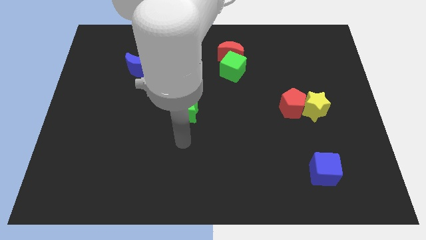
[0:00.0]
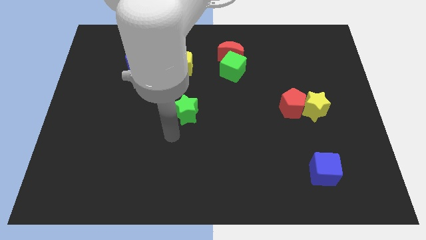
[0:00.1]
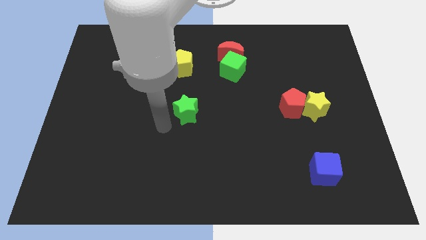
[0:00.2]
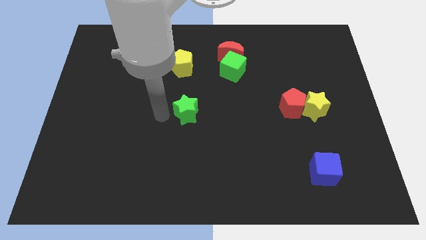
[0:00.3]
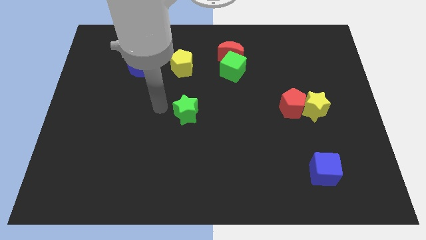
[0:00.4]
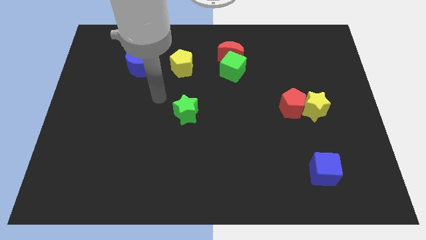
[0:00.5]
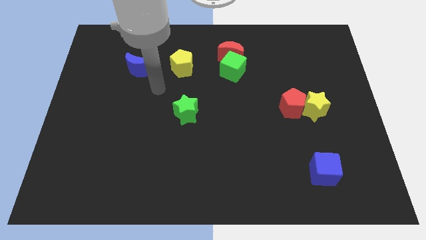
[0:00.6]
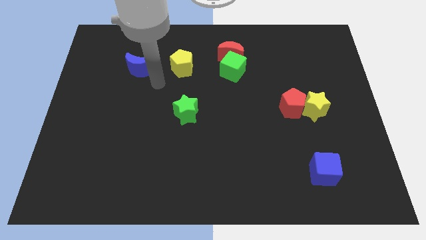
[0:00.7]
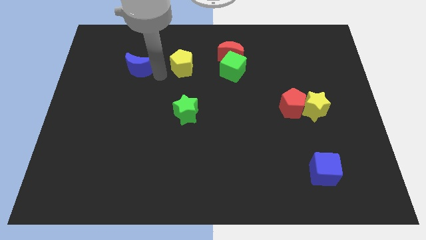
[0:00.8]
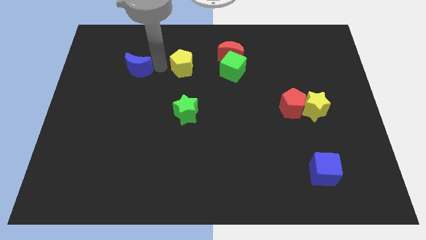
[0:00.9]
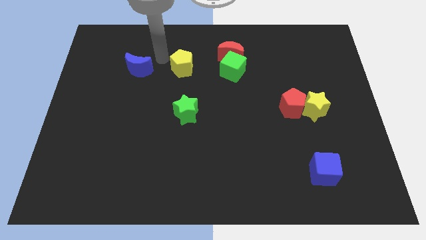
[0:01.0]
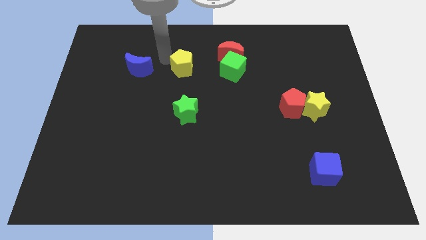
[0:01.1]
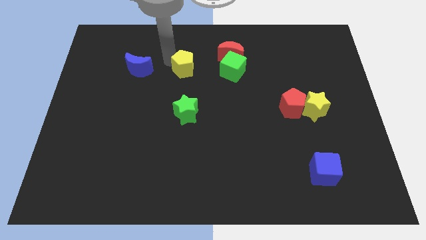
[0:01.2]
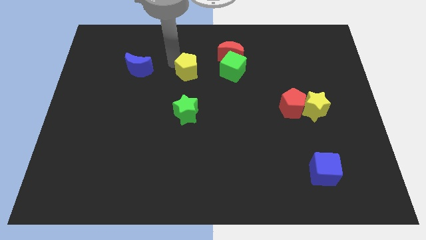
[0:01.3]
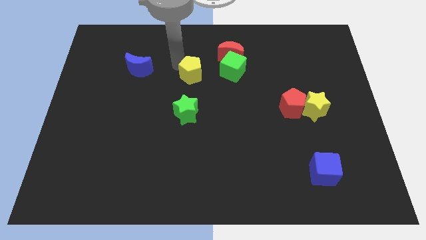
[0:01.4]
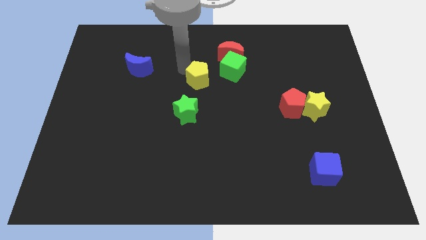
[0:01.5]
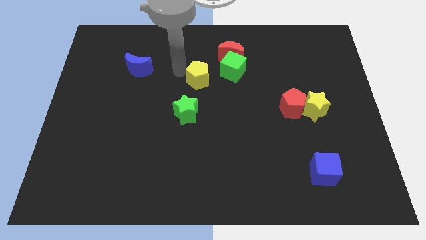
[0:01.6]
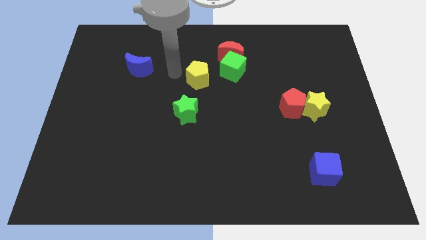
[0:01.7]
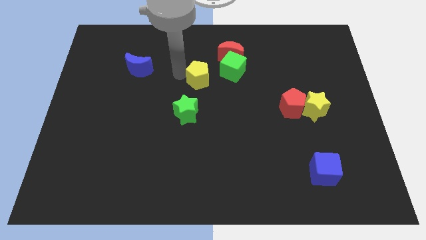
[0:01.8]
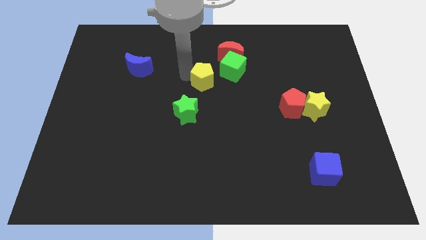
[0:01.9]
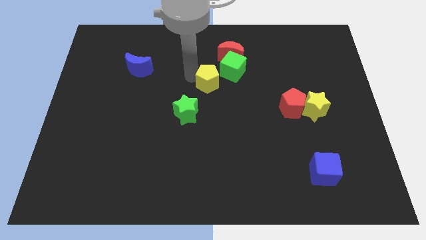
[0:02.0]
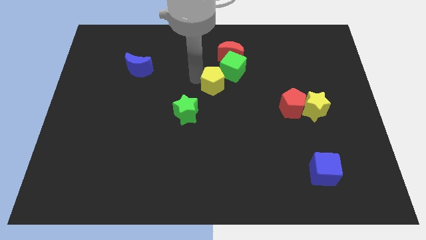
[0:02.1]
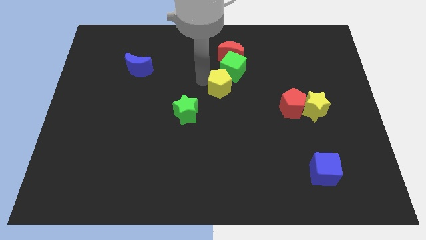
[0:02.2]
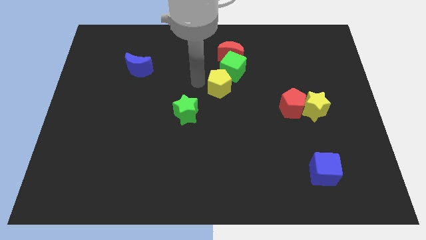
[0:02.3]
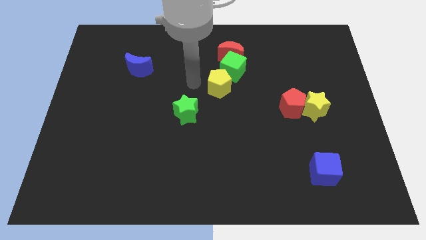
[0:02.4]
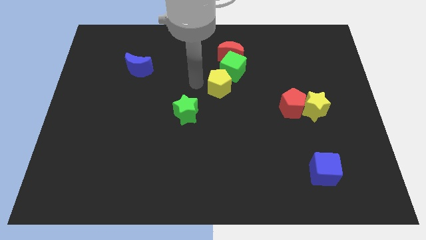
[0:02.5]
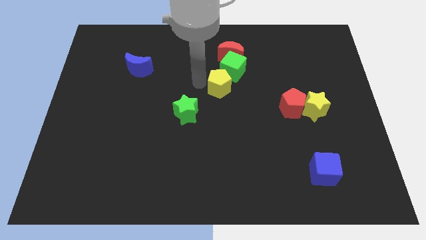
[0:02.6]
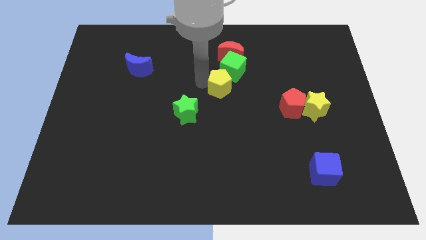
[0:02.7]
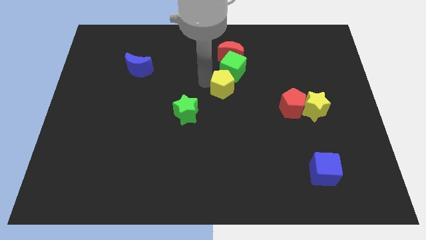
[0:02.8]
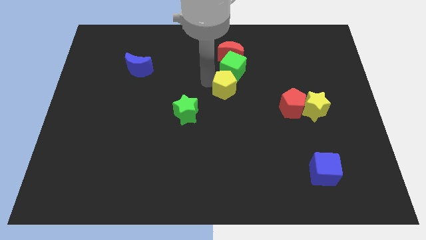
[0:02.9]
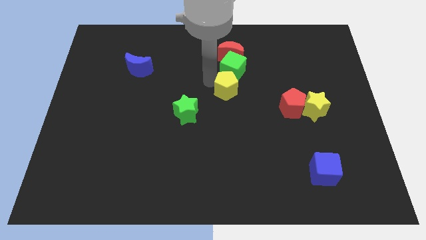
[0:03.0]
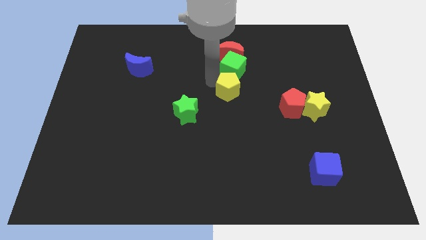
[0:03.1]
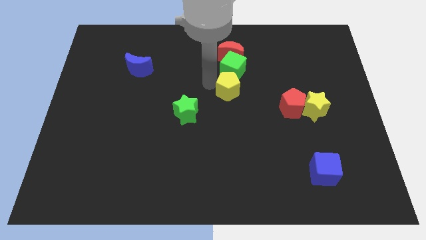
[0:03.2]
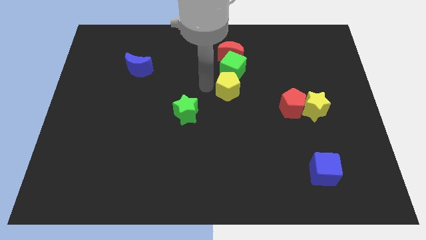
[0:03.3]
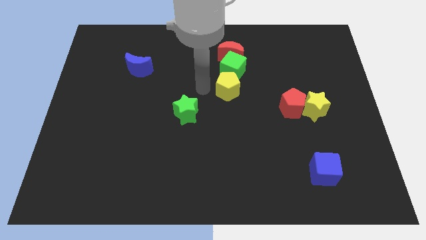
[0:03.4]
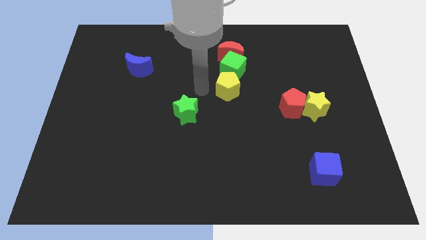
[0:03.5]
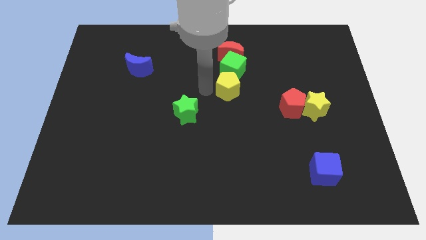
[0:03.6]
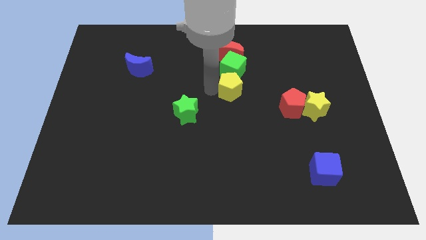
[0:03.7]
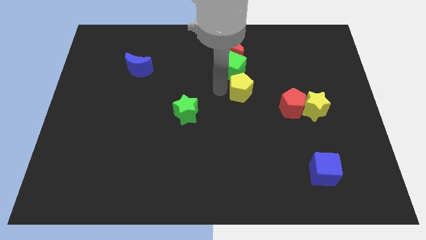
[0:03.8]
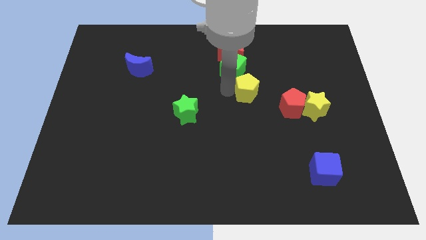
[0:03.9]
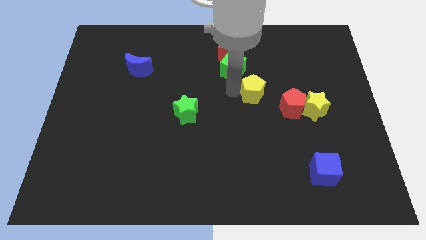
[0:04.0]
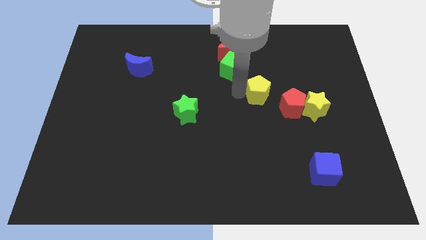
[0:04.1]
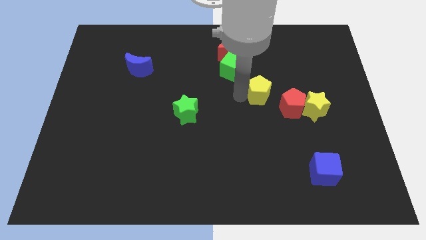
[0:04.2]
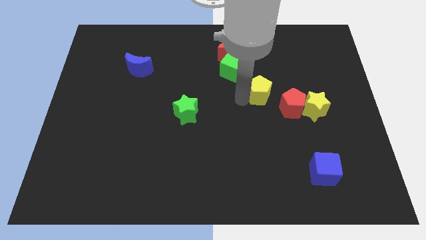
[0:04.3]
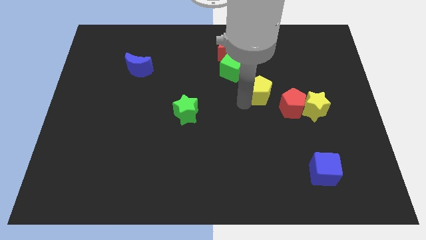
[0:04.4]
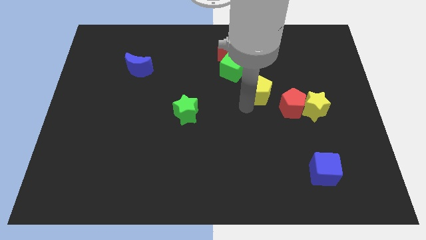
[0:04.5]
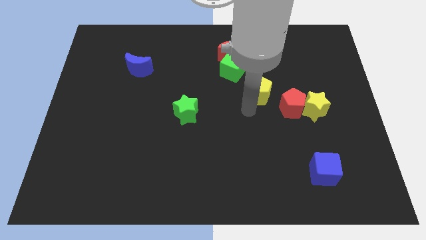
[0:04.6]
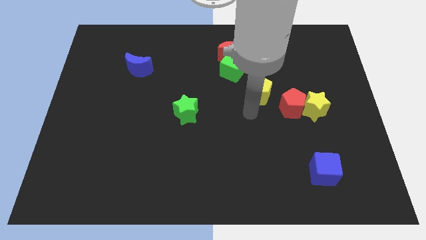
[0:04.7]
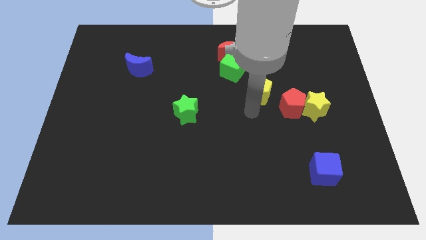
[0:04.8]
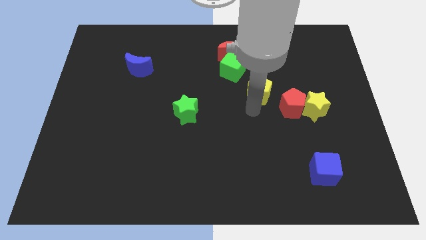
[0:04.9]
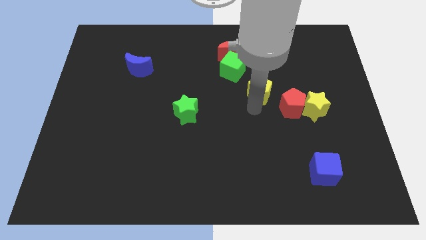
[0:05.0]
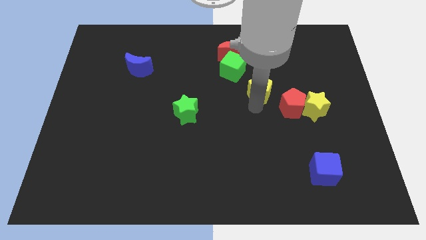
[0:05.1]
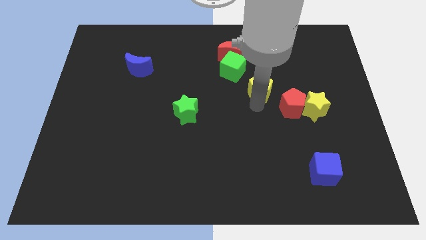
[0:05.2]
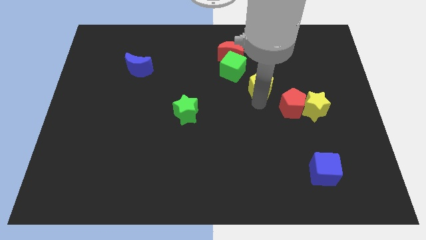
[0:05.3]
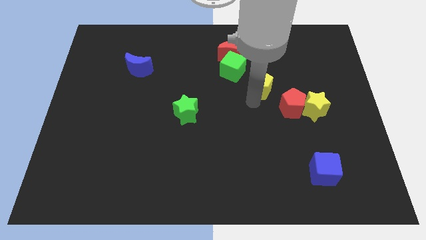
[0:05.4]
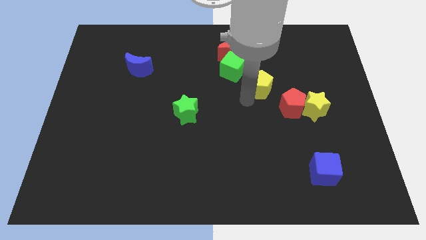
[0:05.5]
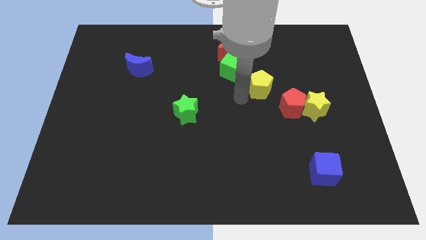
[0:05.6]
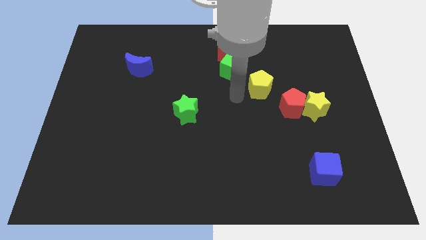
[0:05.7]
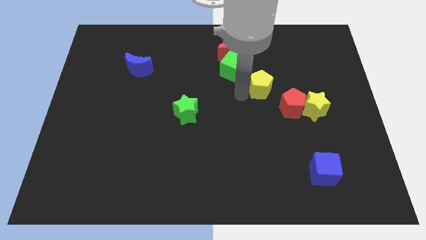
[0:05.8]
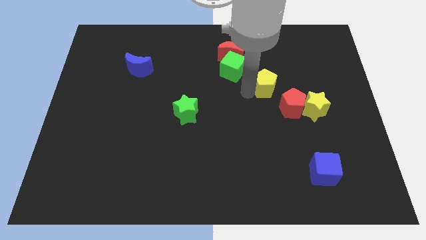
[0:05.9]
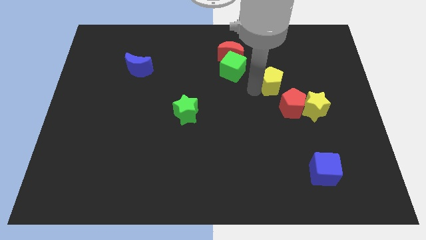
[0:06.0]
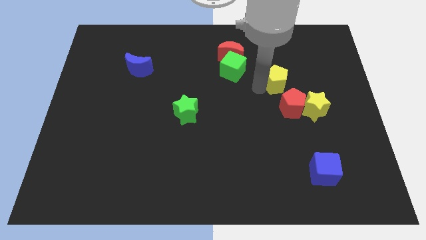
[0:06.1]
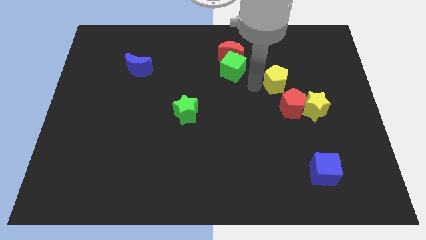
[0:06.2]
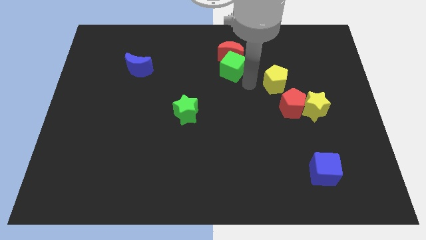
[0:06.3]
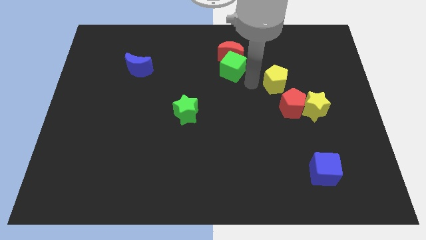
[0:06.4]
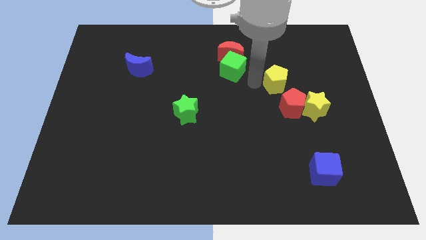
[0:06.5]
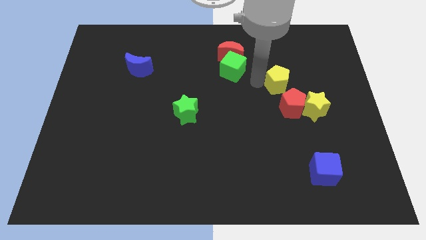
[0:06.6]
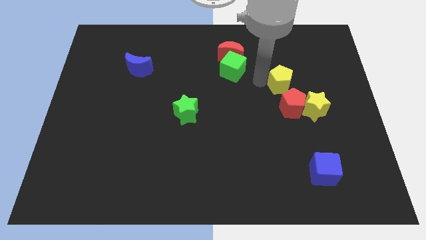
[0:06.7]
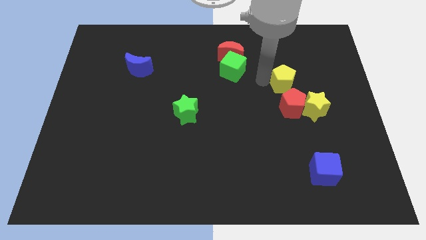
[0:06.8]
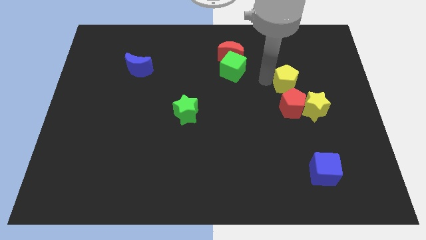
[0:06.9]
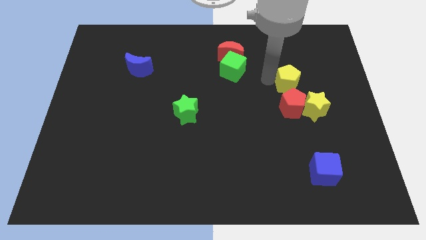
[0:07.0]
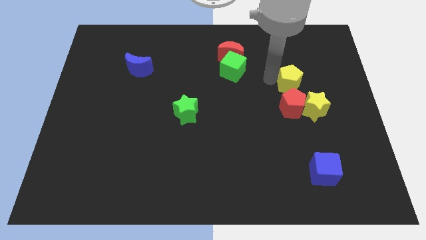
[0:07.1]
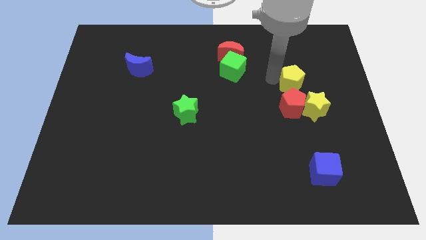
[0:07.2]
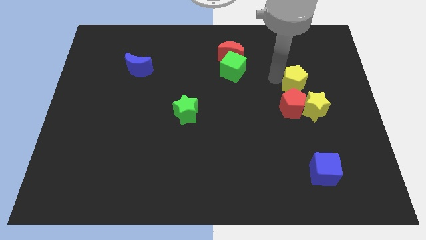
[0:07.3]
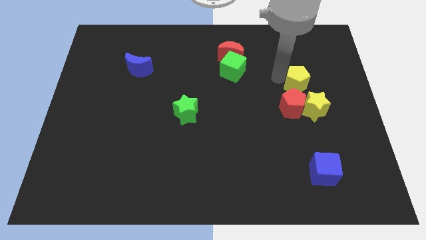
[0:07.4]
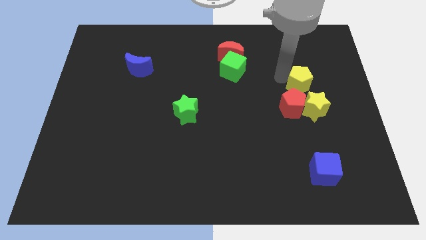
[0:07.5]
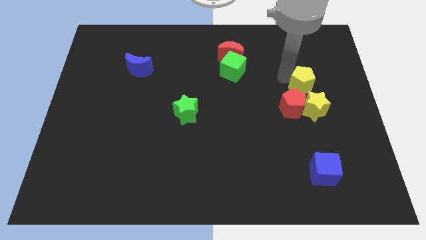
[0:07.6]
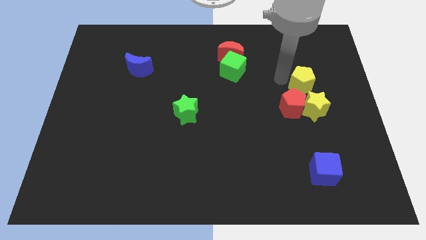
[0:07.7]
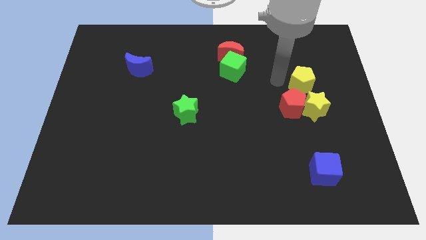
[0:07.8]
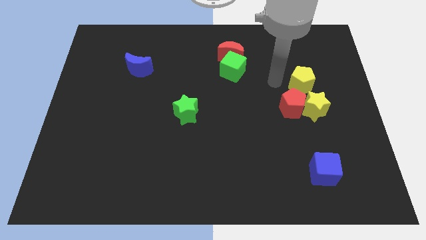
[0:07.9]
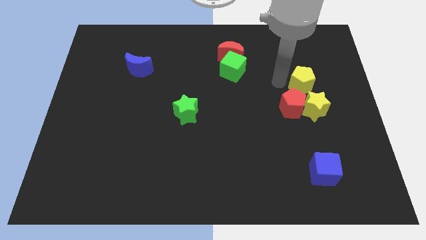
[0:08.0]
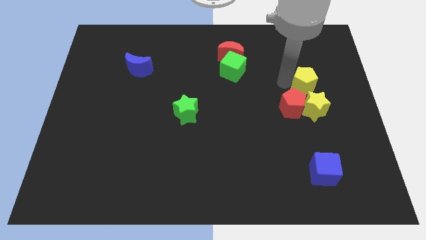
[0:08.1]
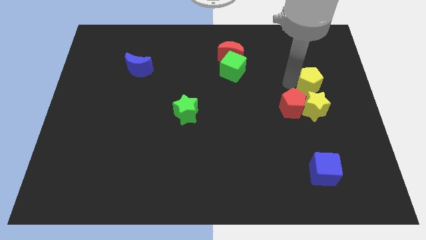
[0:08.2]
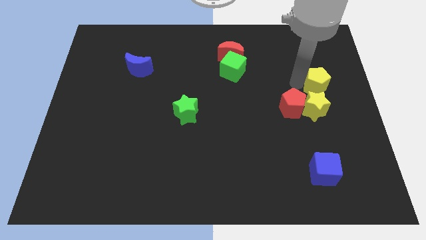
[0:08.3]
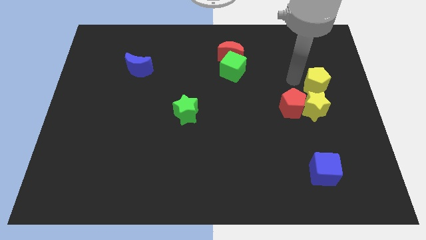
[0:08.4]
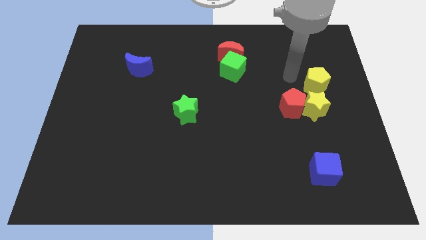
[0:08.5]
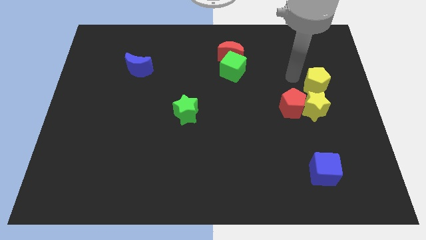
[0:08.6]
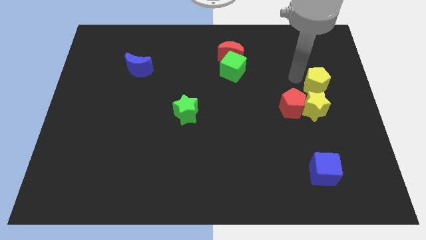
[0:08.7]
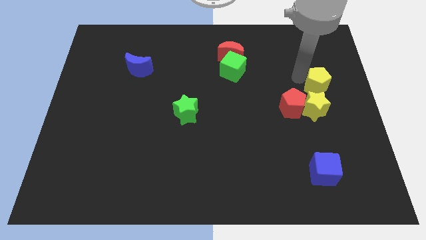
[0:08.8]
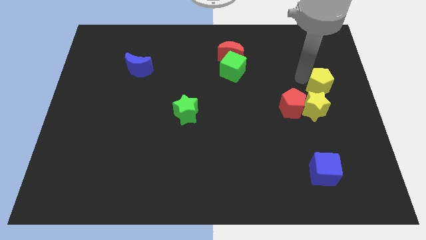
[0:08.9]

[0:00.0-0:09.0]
move the yellow pentagon to the center right
